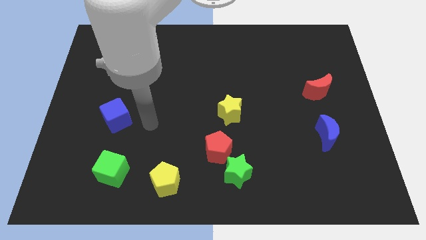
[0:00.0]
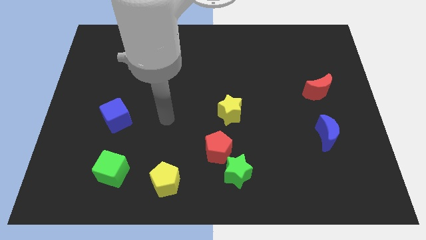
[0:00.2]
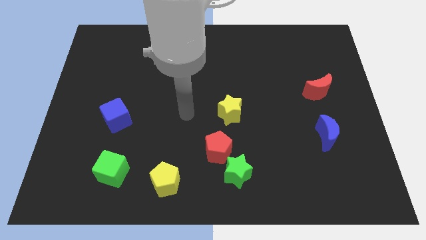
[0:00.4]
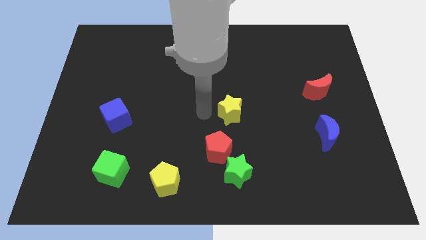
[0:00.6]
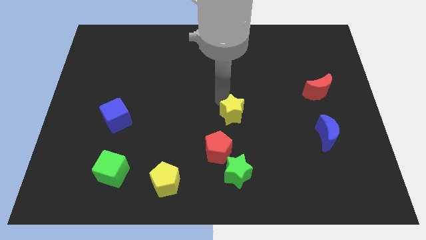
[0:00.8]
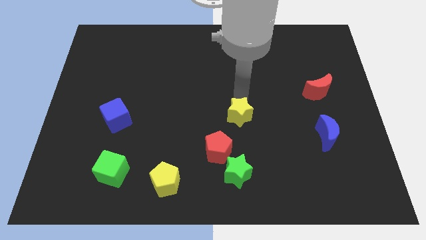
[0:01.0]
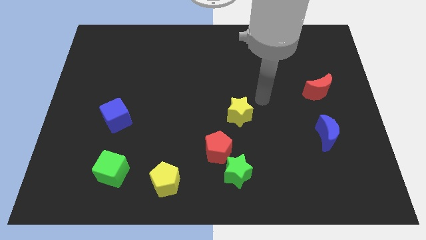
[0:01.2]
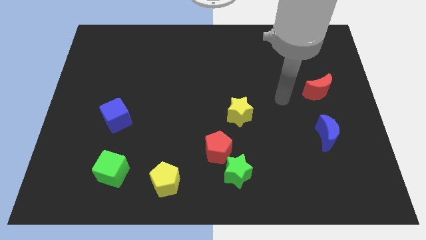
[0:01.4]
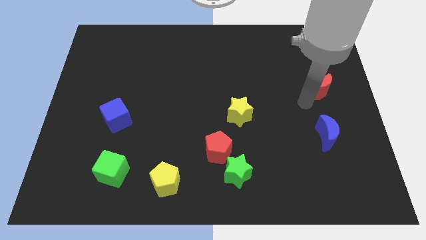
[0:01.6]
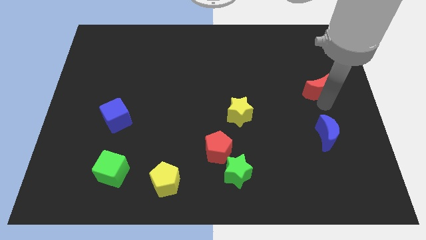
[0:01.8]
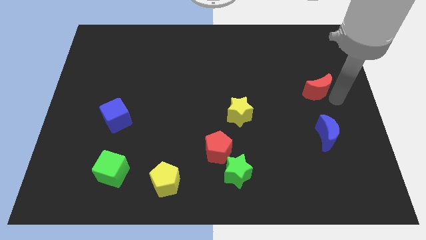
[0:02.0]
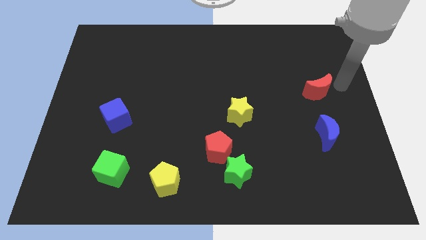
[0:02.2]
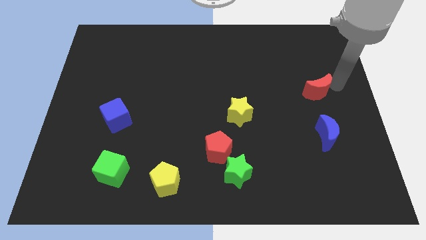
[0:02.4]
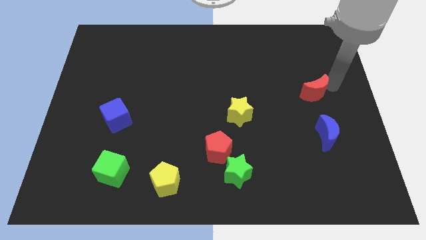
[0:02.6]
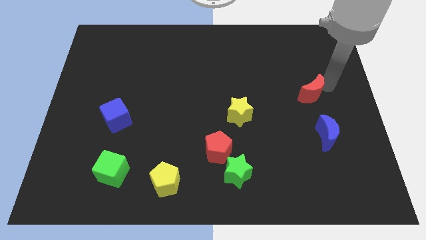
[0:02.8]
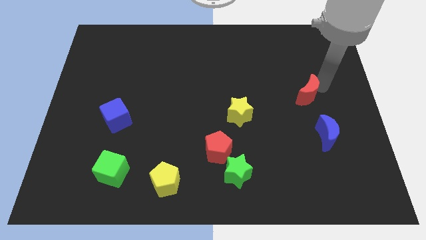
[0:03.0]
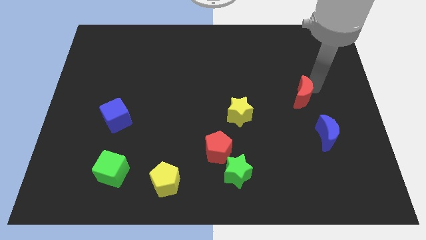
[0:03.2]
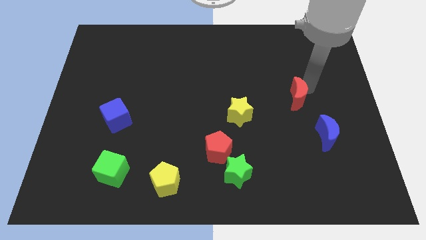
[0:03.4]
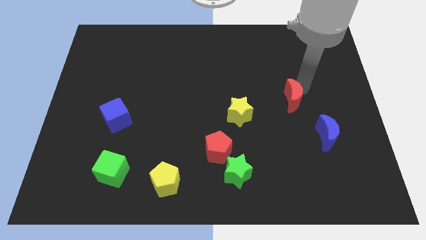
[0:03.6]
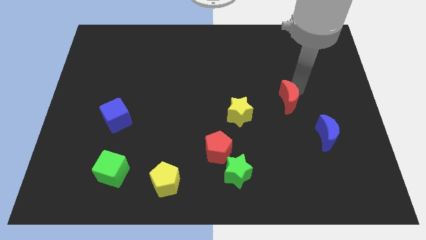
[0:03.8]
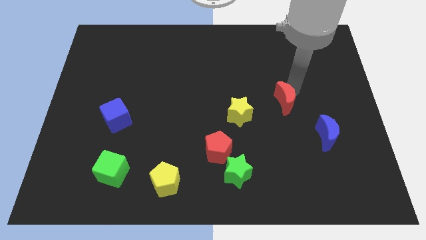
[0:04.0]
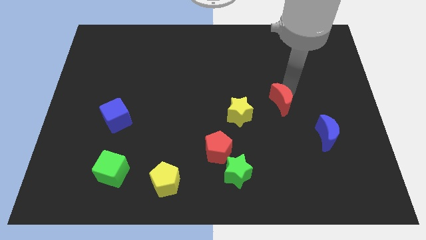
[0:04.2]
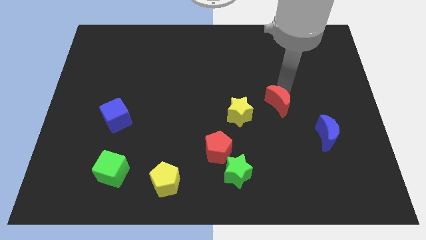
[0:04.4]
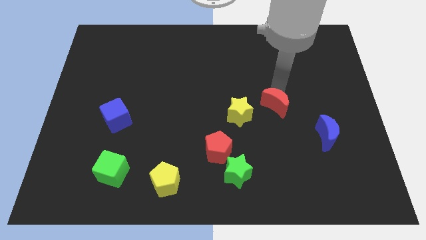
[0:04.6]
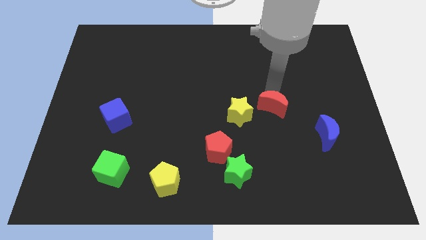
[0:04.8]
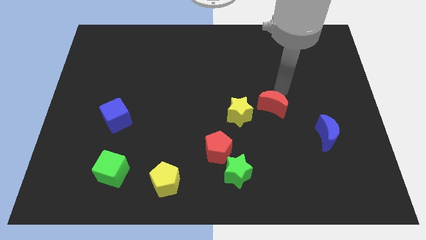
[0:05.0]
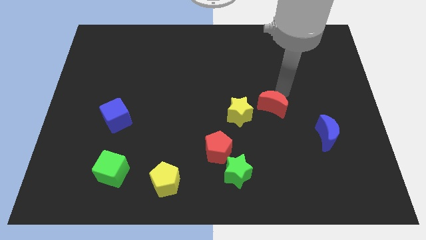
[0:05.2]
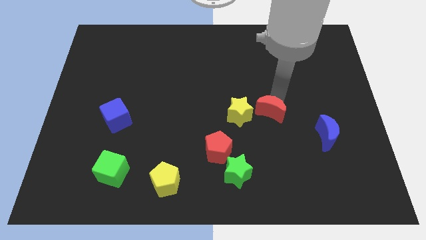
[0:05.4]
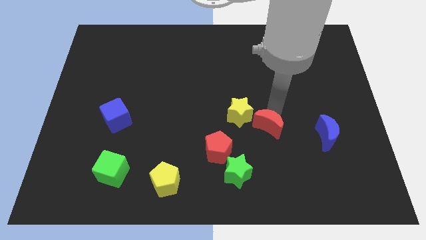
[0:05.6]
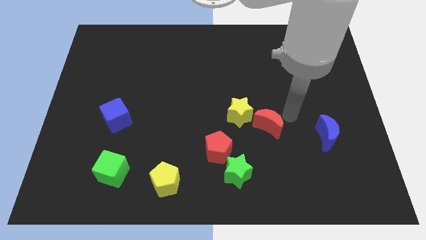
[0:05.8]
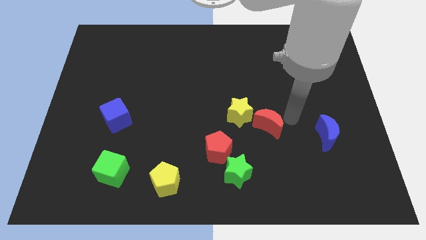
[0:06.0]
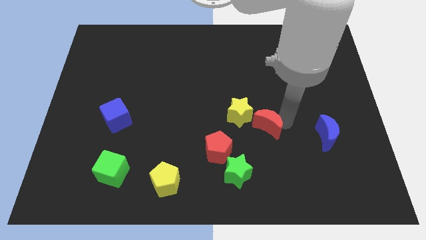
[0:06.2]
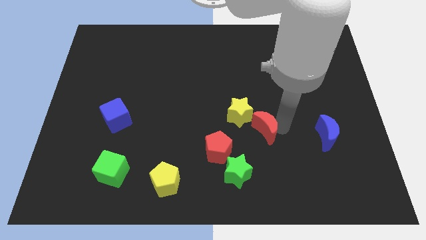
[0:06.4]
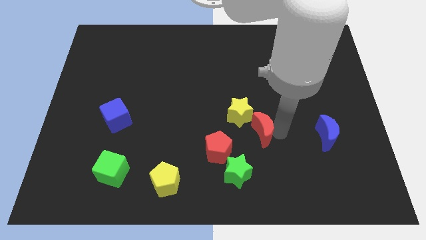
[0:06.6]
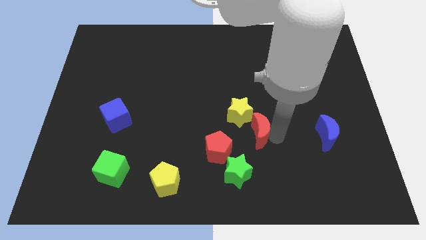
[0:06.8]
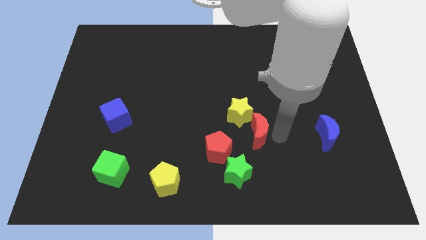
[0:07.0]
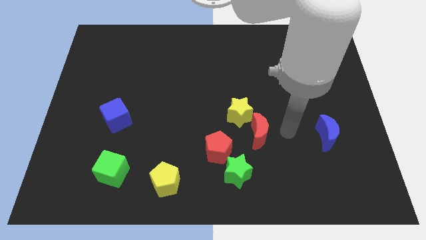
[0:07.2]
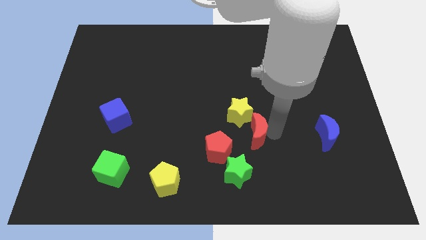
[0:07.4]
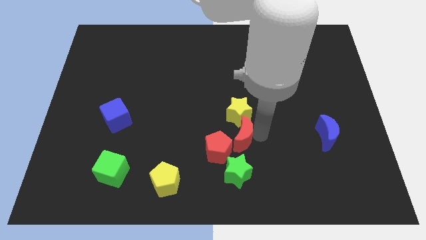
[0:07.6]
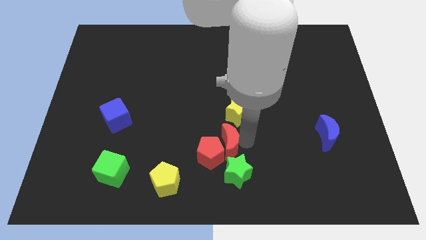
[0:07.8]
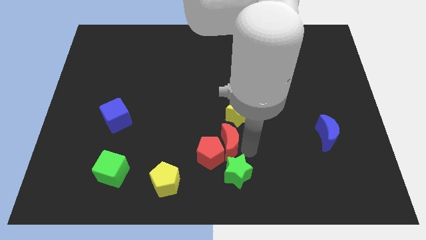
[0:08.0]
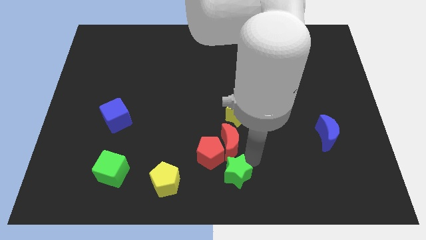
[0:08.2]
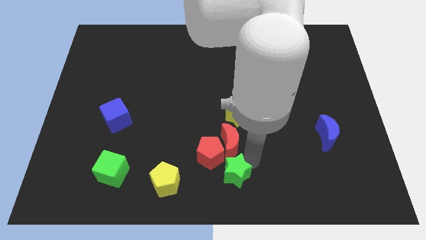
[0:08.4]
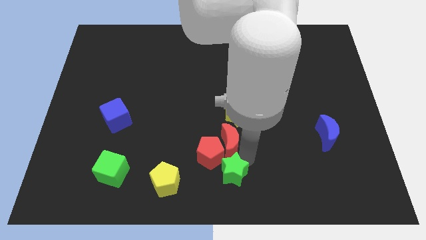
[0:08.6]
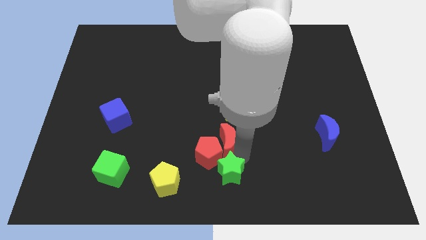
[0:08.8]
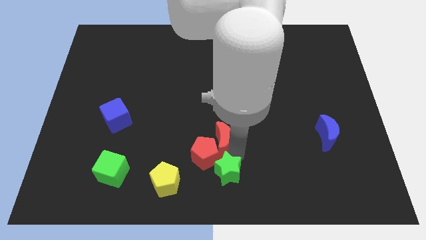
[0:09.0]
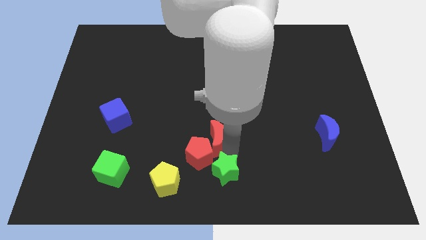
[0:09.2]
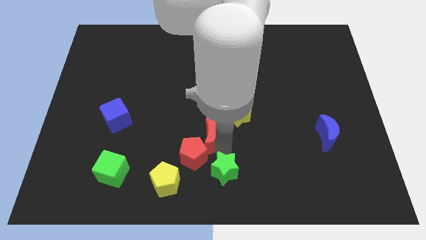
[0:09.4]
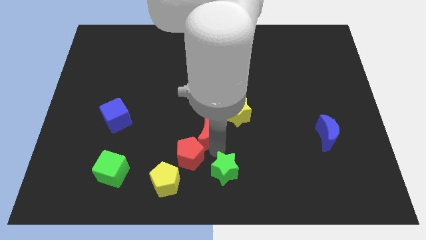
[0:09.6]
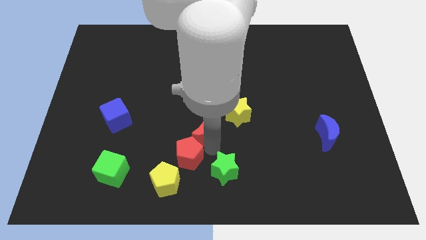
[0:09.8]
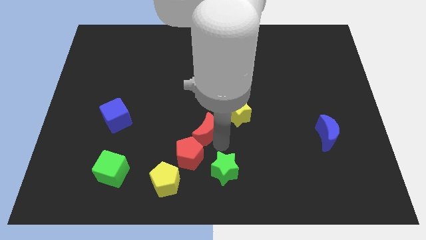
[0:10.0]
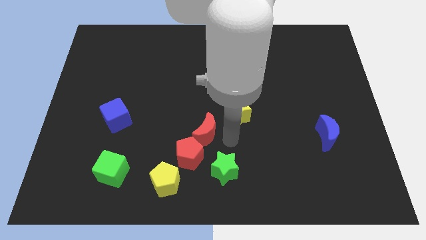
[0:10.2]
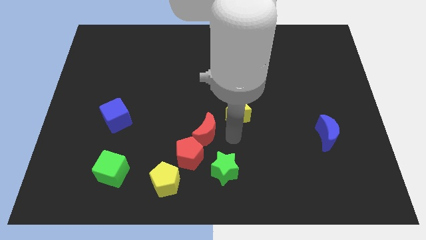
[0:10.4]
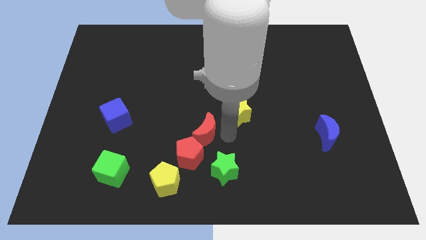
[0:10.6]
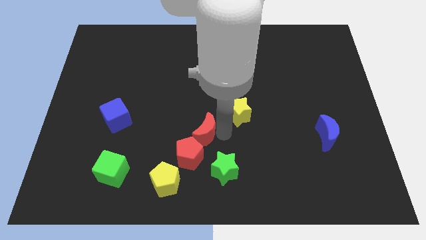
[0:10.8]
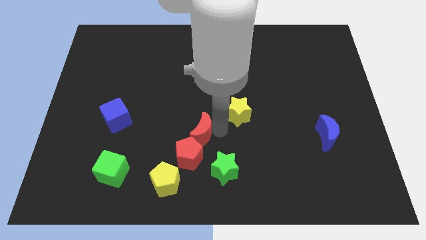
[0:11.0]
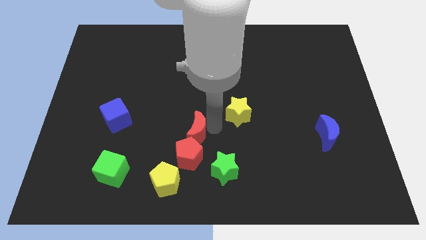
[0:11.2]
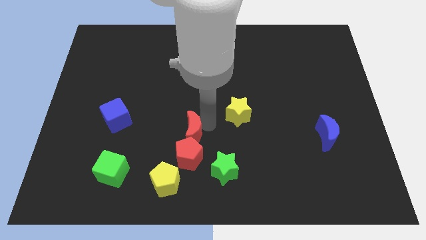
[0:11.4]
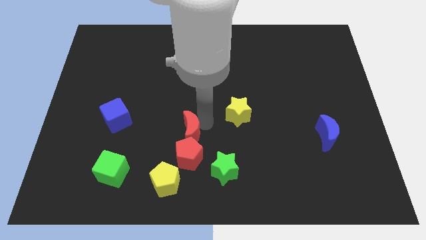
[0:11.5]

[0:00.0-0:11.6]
put the red moon to the top side of the yellow pentagon

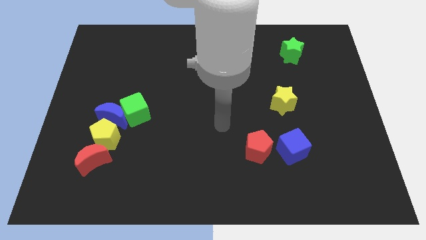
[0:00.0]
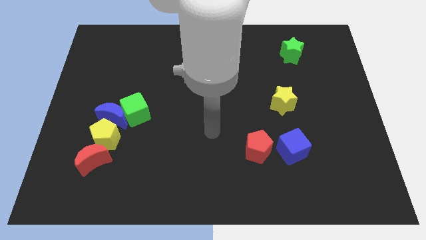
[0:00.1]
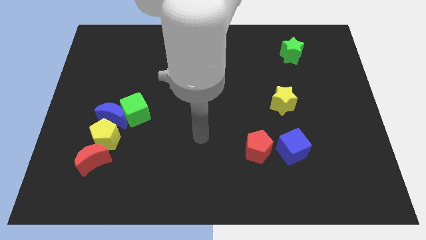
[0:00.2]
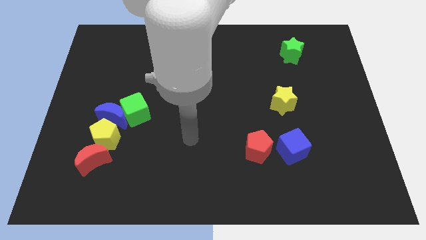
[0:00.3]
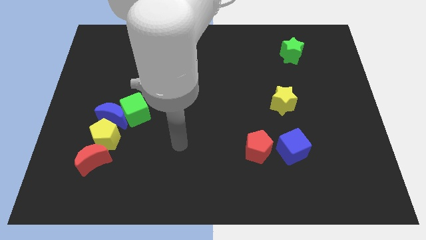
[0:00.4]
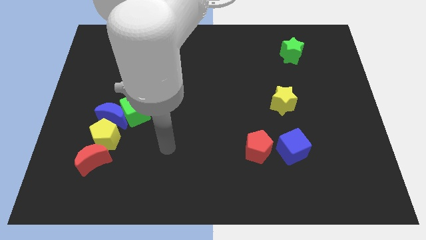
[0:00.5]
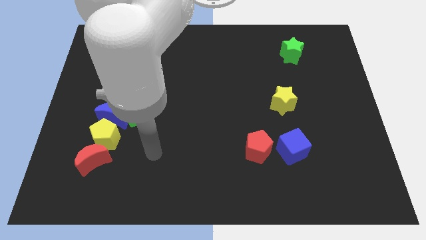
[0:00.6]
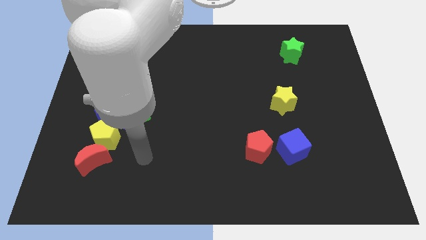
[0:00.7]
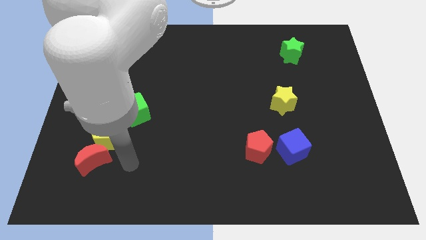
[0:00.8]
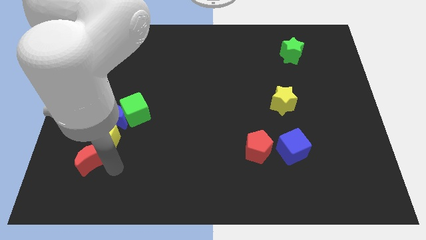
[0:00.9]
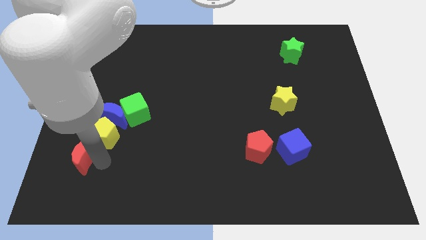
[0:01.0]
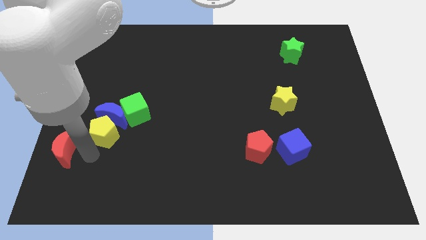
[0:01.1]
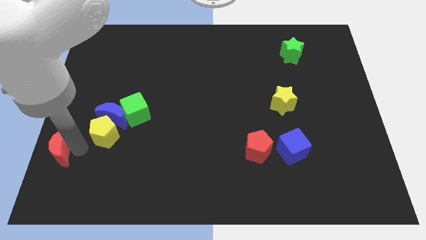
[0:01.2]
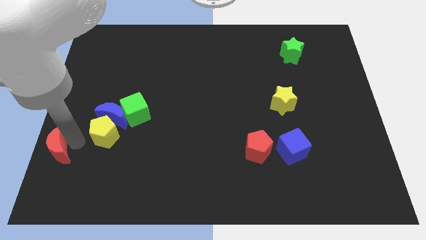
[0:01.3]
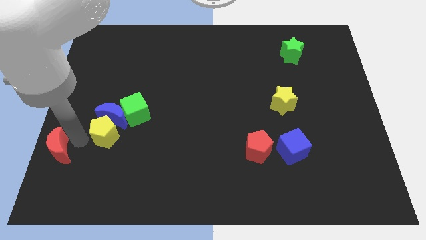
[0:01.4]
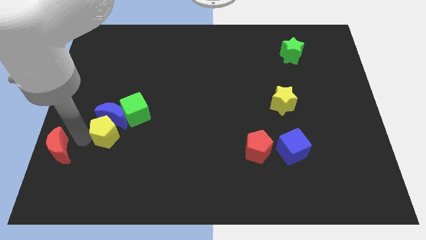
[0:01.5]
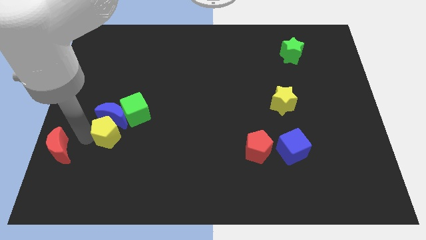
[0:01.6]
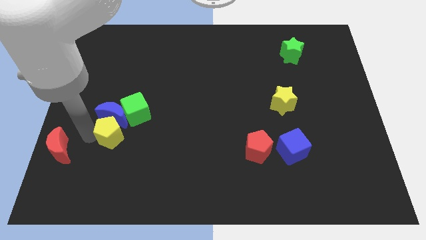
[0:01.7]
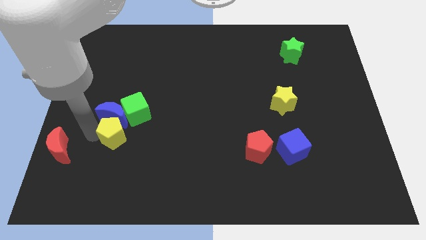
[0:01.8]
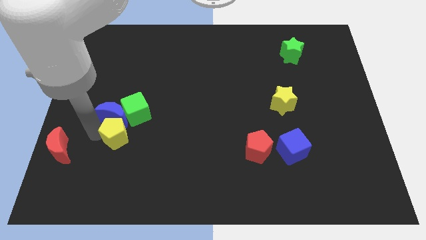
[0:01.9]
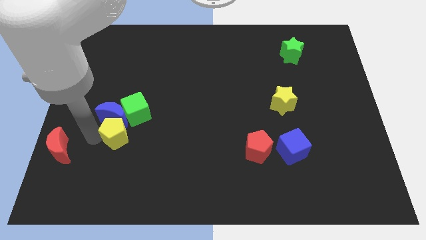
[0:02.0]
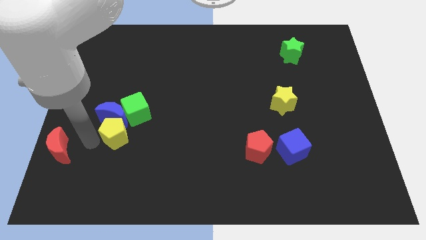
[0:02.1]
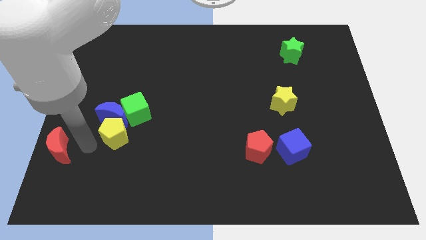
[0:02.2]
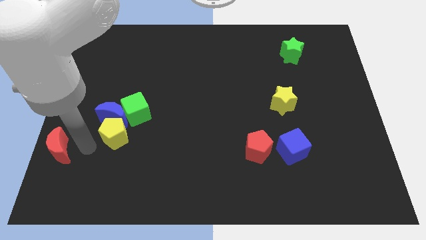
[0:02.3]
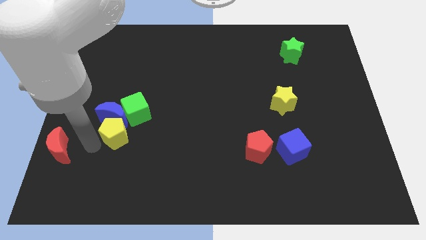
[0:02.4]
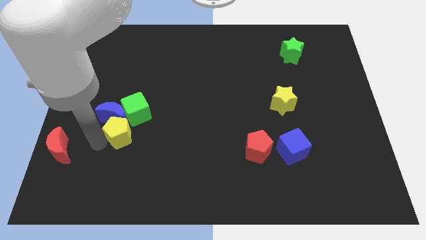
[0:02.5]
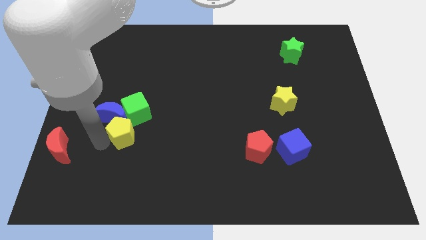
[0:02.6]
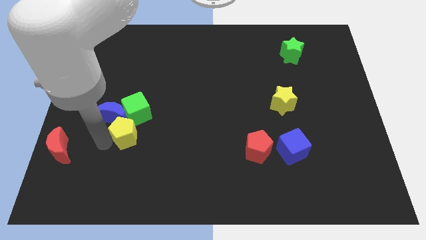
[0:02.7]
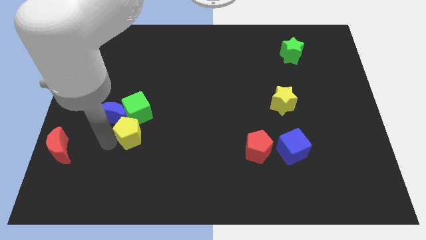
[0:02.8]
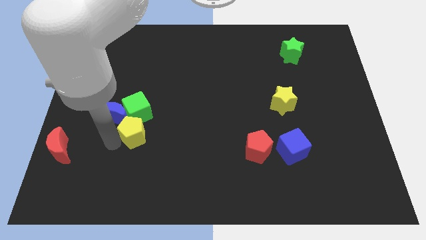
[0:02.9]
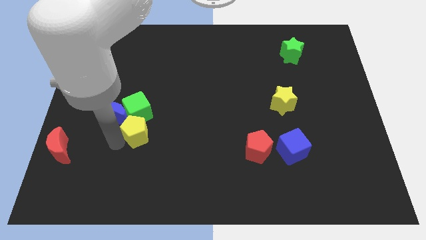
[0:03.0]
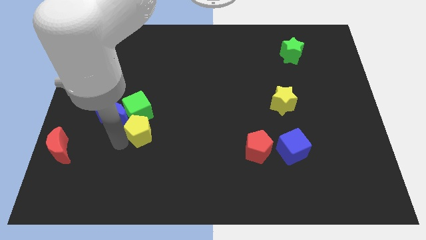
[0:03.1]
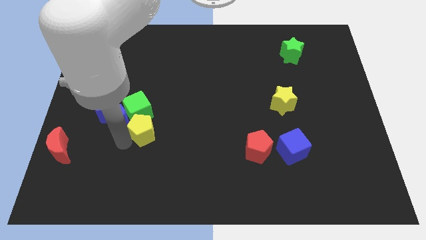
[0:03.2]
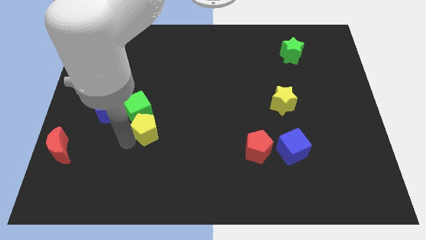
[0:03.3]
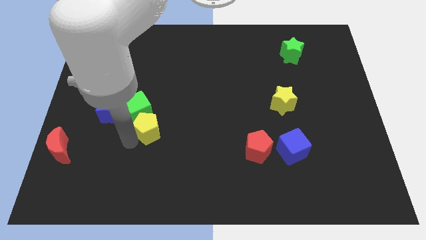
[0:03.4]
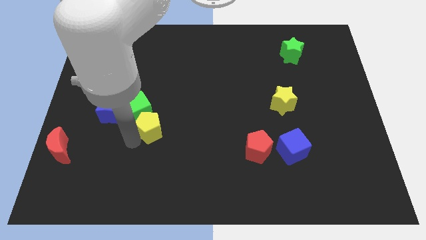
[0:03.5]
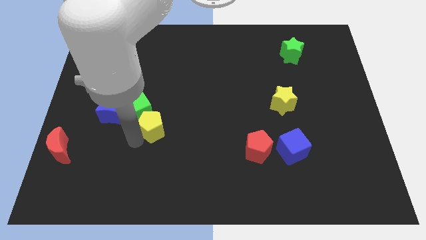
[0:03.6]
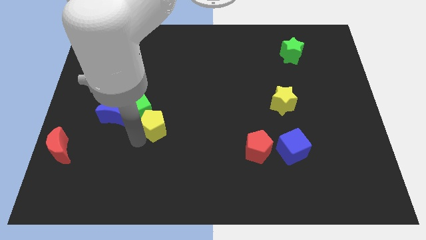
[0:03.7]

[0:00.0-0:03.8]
push the yellow pentagon just right of the green cube
